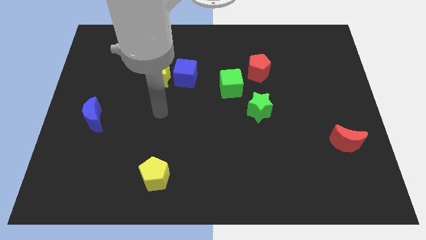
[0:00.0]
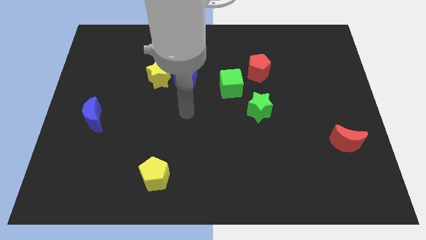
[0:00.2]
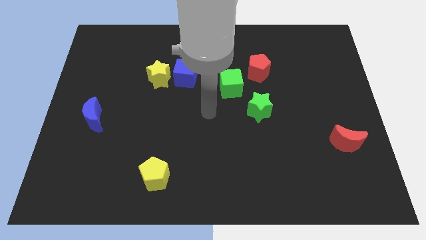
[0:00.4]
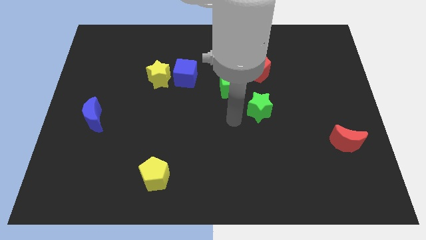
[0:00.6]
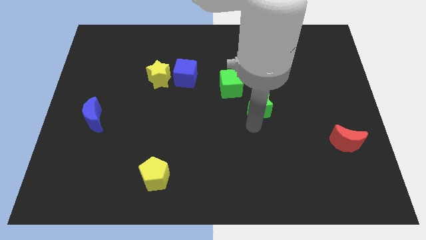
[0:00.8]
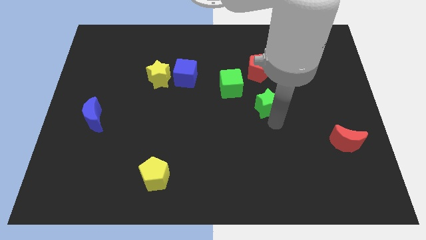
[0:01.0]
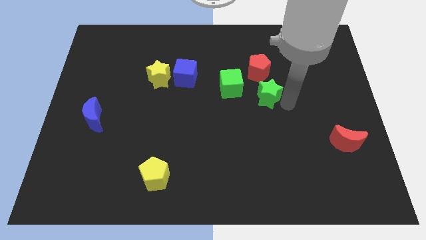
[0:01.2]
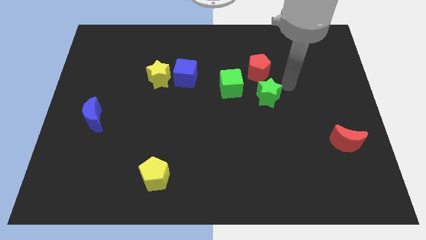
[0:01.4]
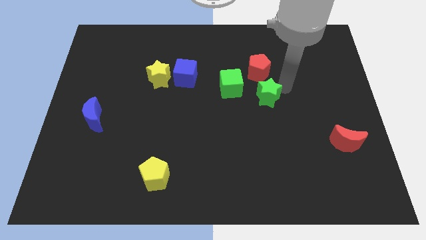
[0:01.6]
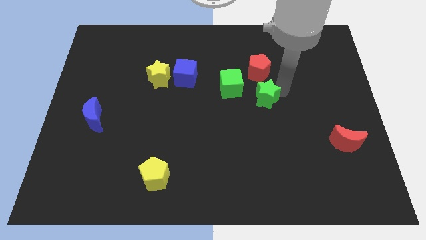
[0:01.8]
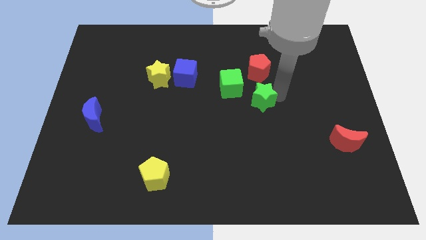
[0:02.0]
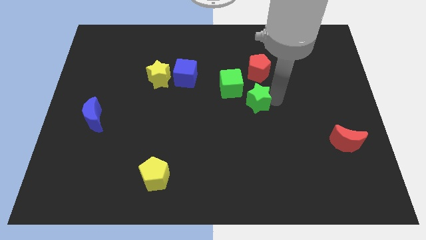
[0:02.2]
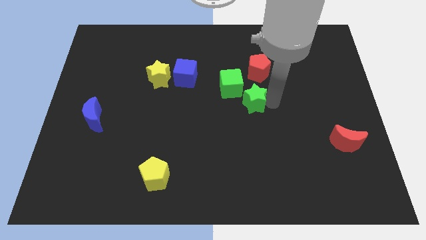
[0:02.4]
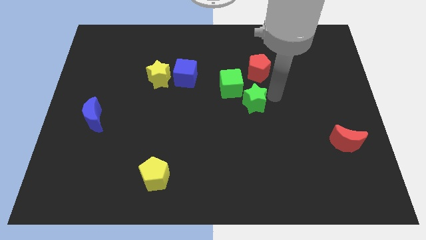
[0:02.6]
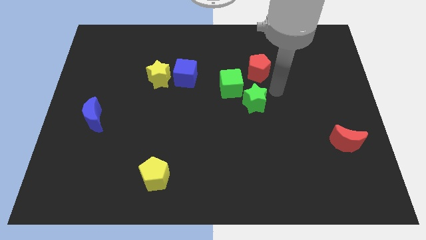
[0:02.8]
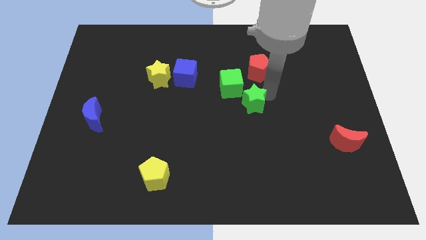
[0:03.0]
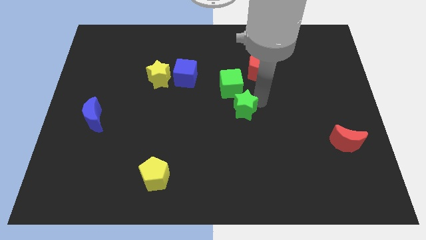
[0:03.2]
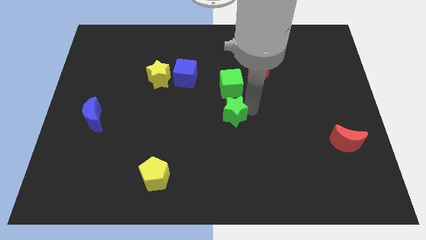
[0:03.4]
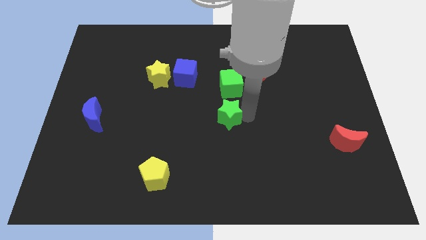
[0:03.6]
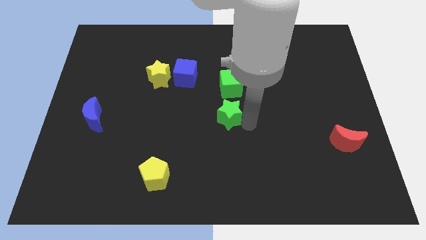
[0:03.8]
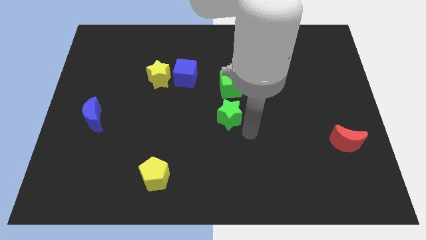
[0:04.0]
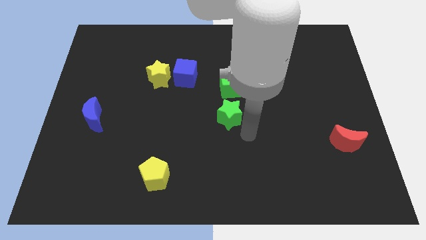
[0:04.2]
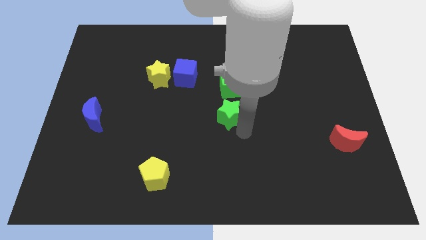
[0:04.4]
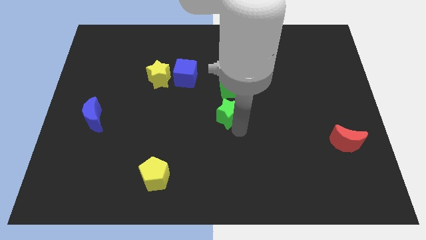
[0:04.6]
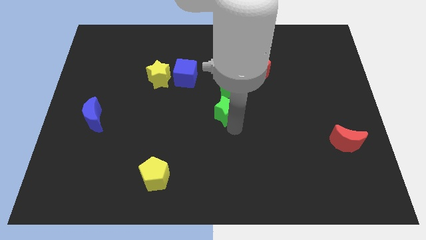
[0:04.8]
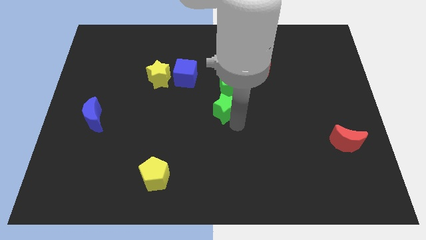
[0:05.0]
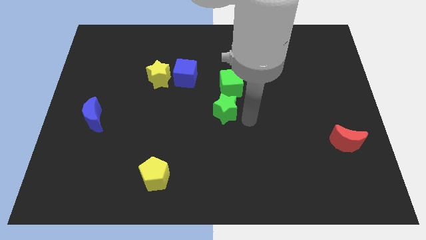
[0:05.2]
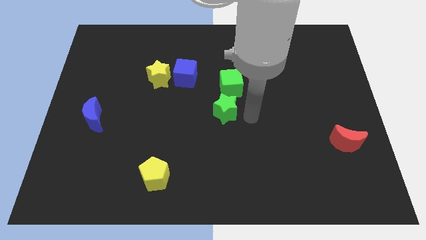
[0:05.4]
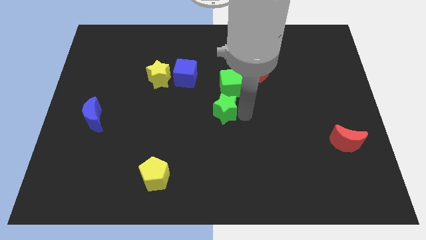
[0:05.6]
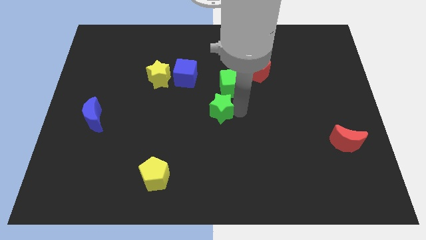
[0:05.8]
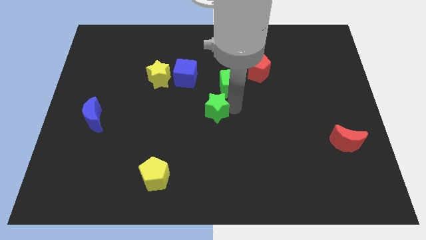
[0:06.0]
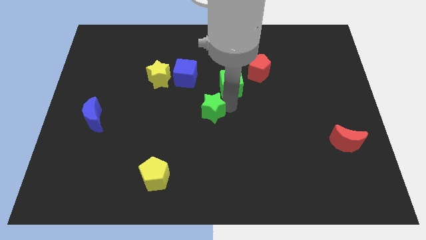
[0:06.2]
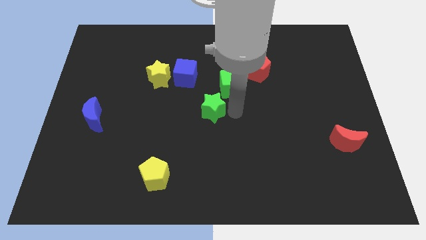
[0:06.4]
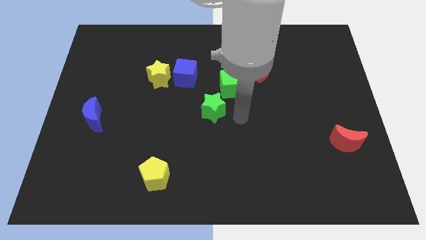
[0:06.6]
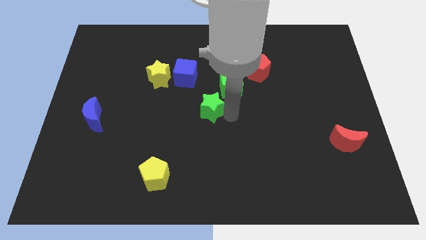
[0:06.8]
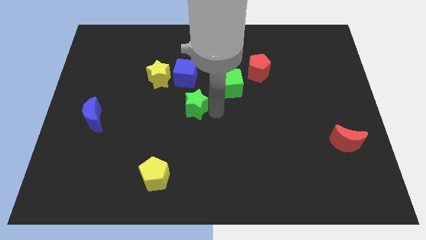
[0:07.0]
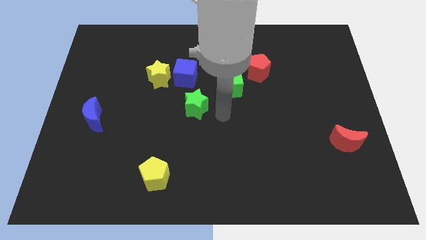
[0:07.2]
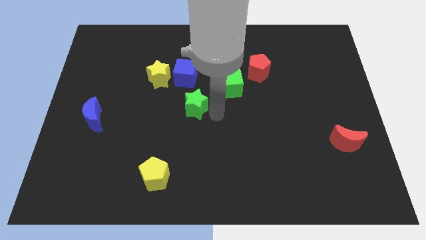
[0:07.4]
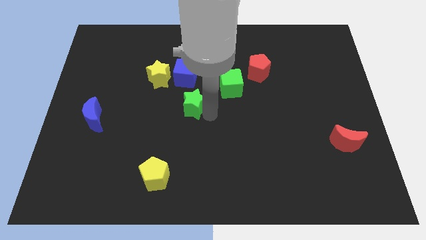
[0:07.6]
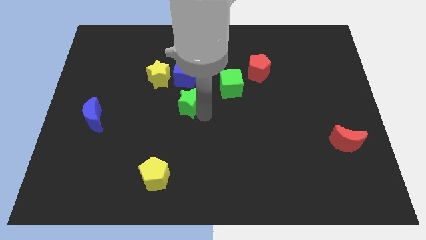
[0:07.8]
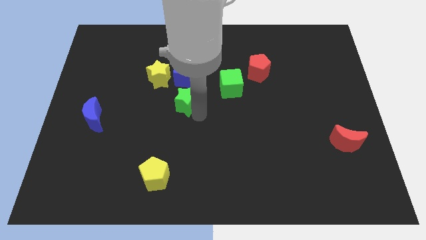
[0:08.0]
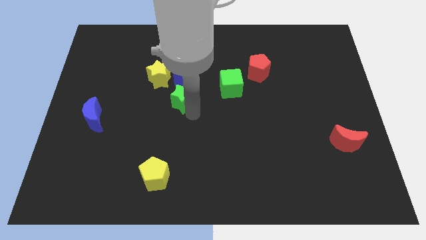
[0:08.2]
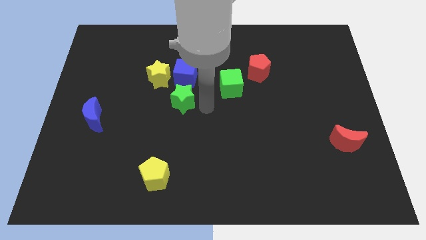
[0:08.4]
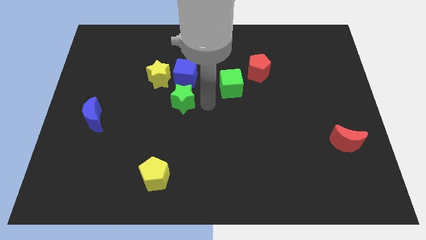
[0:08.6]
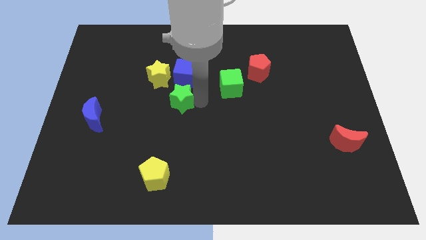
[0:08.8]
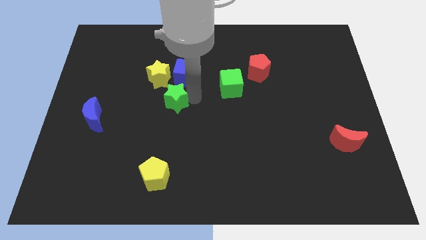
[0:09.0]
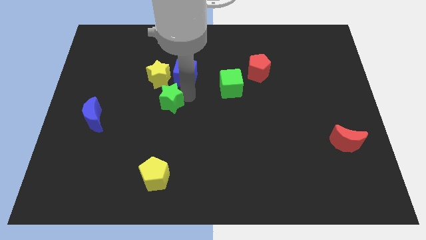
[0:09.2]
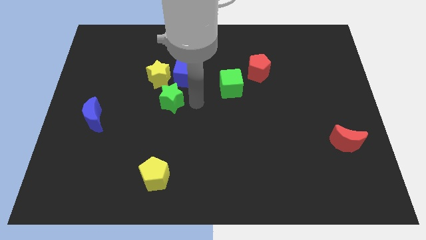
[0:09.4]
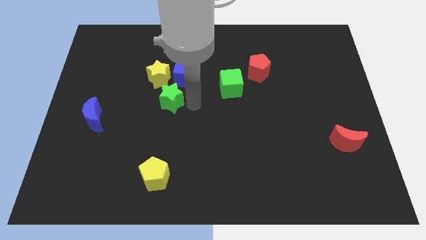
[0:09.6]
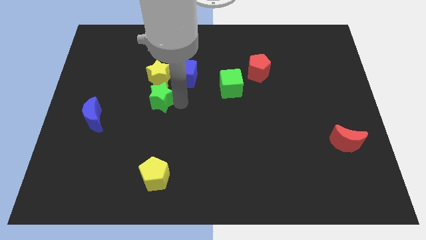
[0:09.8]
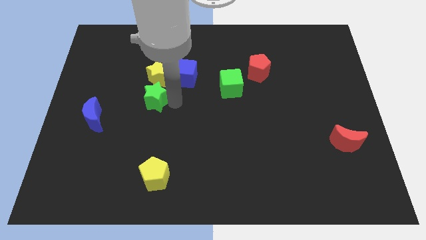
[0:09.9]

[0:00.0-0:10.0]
slide the green star to the bottom left side of the yellow star

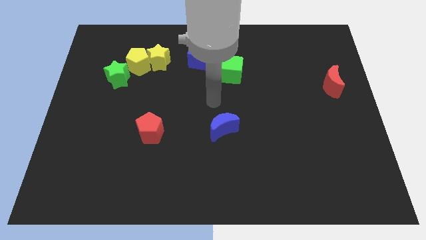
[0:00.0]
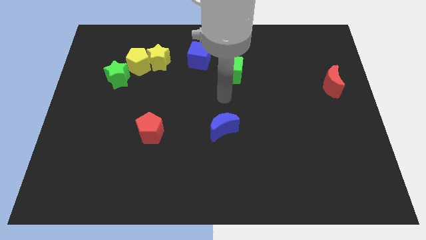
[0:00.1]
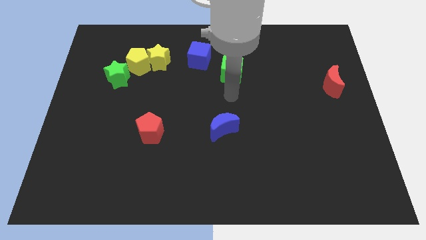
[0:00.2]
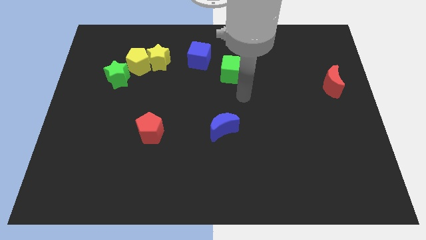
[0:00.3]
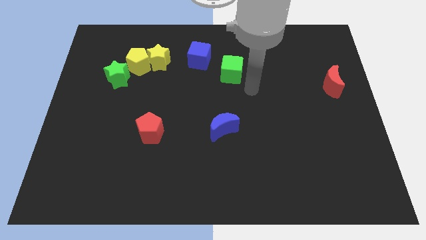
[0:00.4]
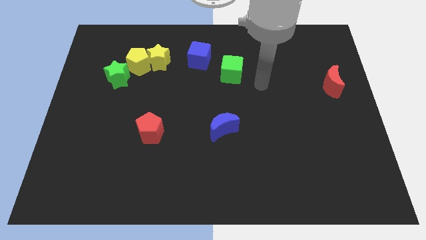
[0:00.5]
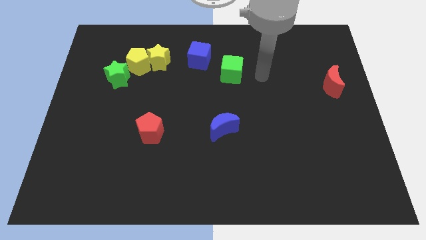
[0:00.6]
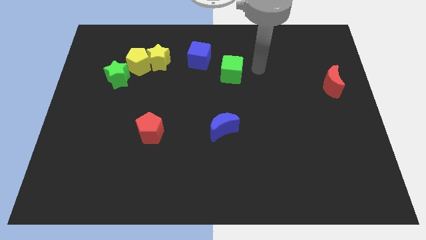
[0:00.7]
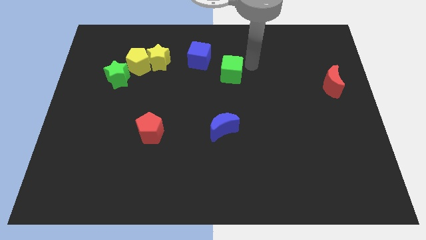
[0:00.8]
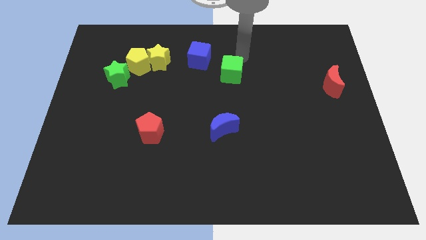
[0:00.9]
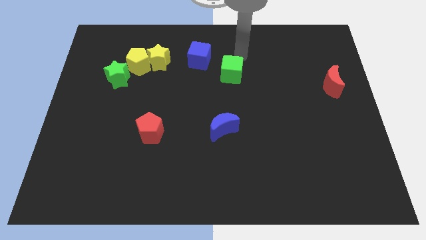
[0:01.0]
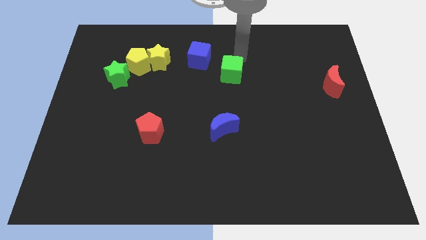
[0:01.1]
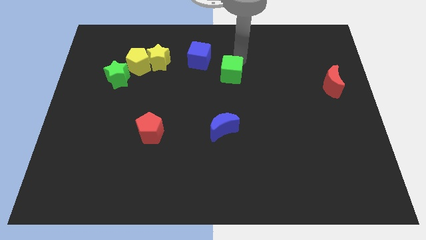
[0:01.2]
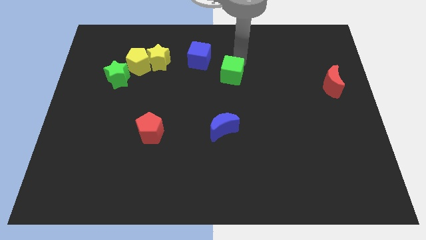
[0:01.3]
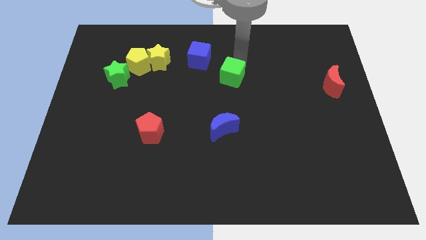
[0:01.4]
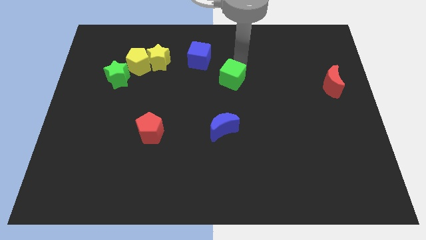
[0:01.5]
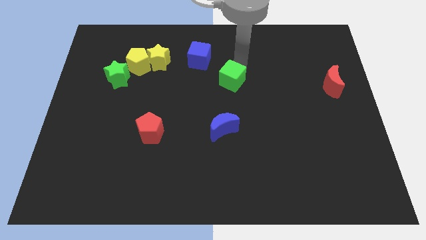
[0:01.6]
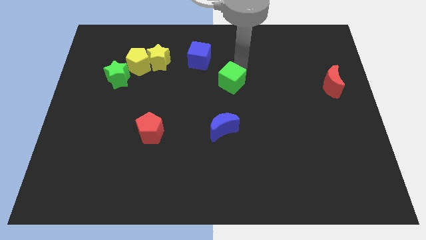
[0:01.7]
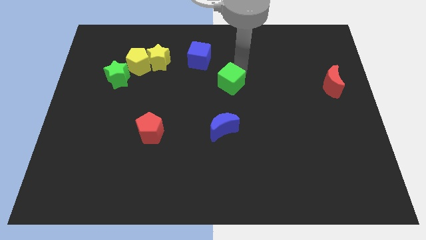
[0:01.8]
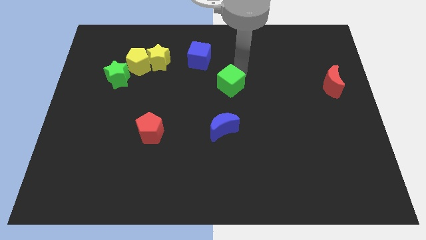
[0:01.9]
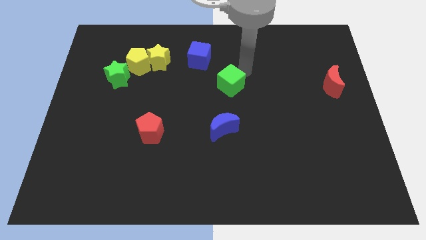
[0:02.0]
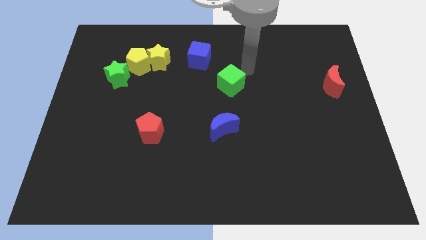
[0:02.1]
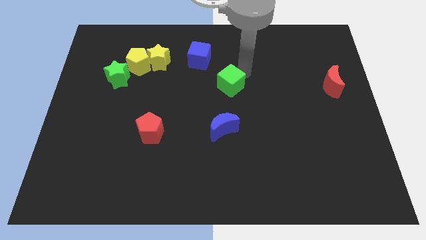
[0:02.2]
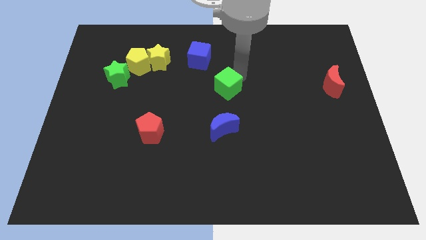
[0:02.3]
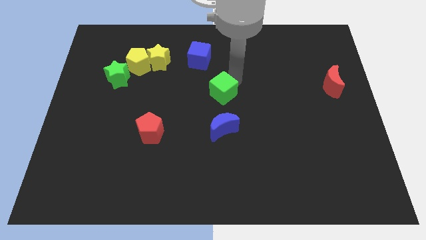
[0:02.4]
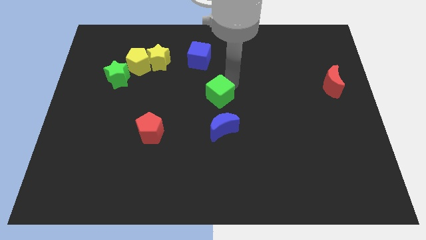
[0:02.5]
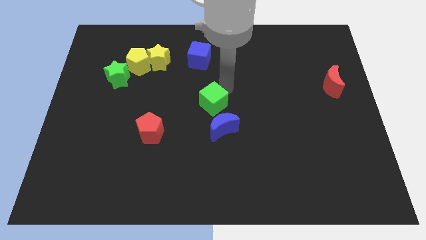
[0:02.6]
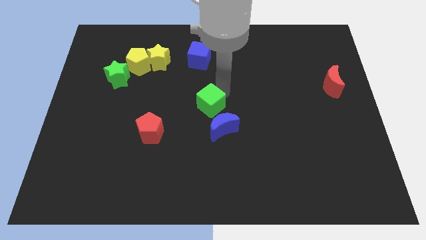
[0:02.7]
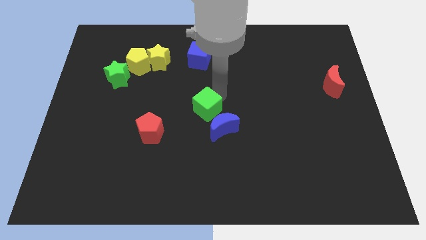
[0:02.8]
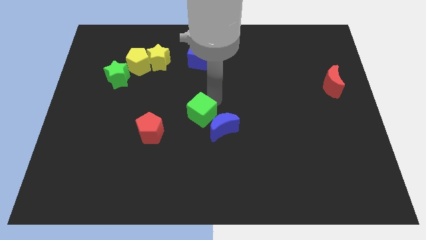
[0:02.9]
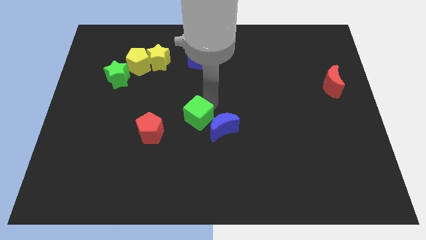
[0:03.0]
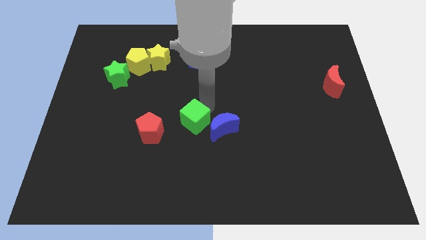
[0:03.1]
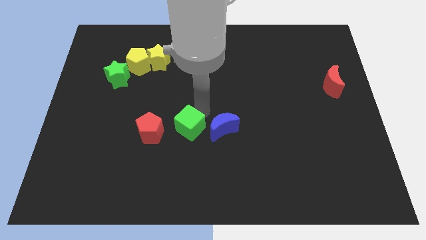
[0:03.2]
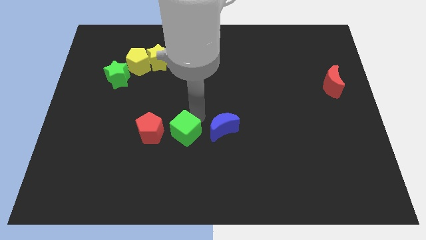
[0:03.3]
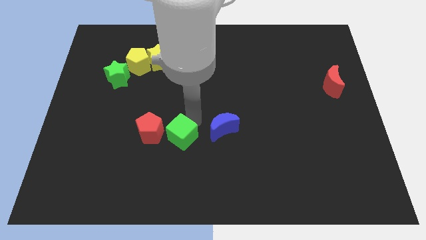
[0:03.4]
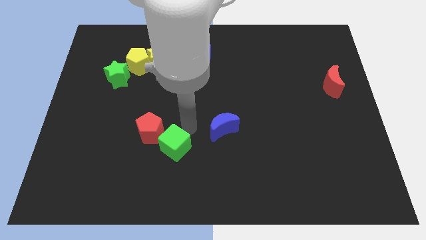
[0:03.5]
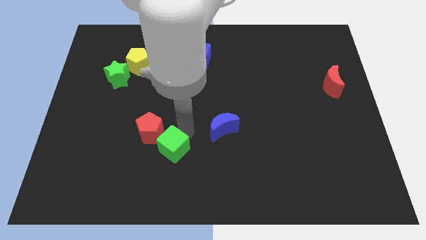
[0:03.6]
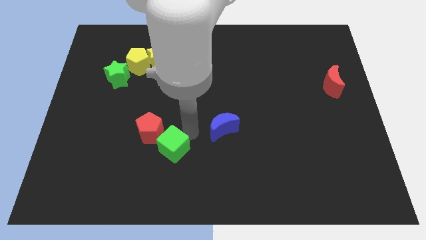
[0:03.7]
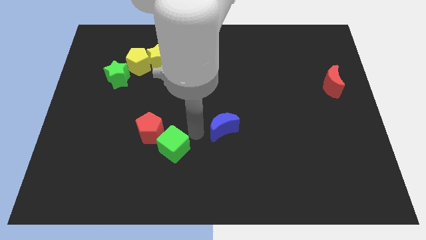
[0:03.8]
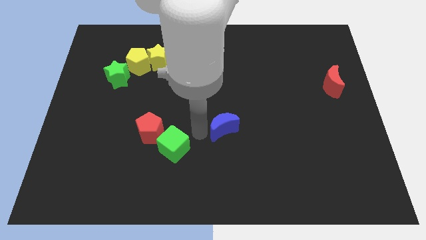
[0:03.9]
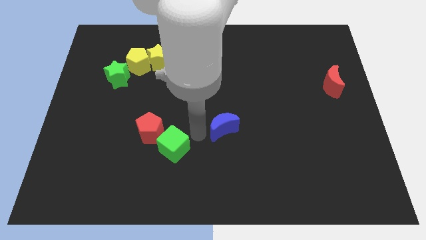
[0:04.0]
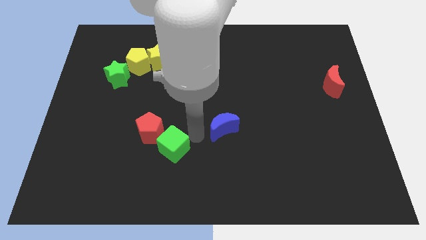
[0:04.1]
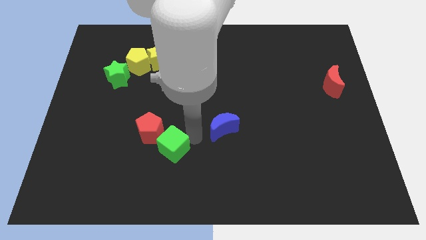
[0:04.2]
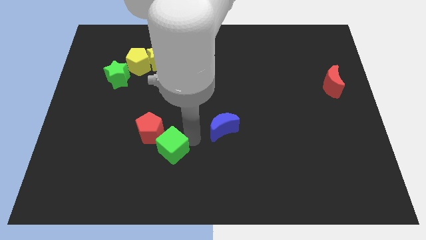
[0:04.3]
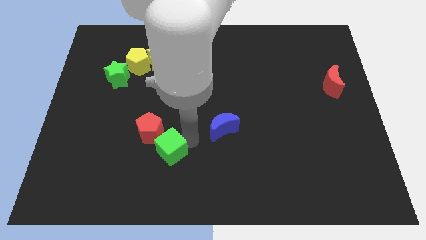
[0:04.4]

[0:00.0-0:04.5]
put the green cube to the bottom side of the red pentagon
